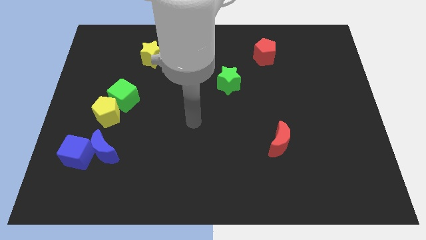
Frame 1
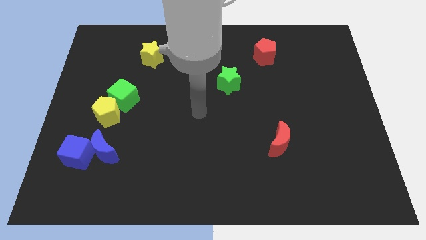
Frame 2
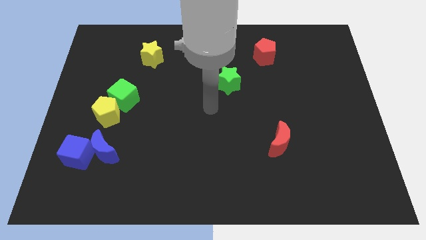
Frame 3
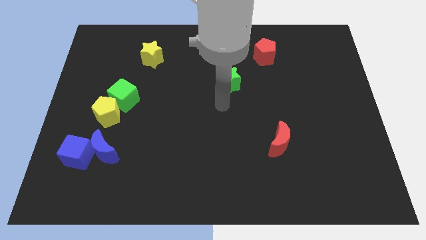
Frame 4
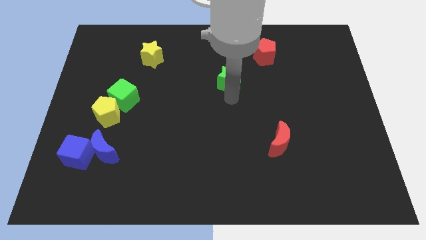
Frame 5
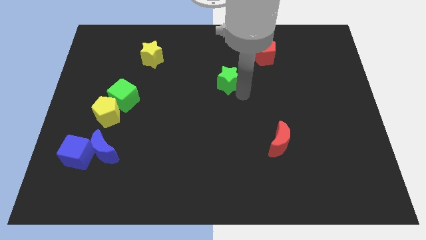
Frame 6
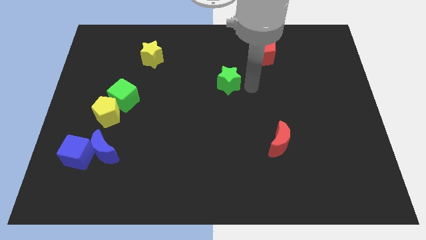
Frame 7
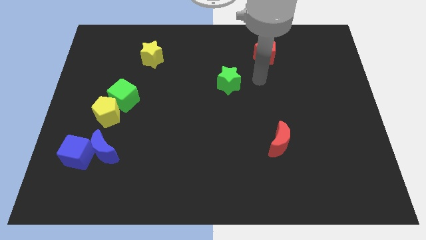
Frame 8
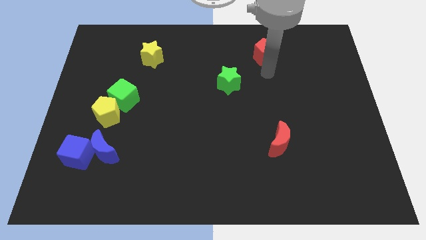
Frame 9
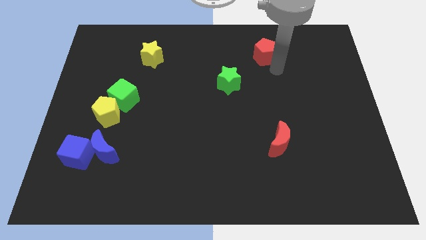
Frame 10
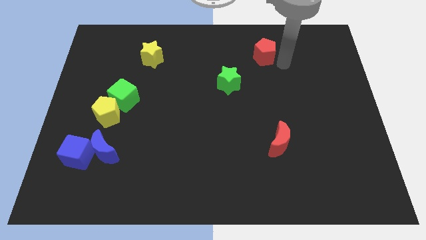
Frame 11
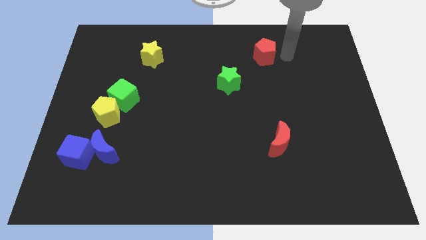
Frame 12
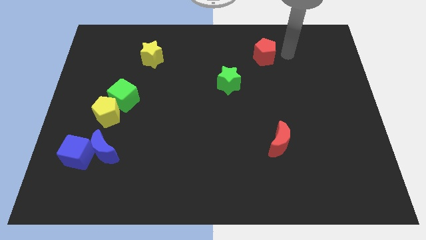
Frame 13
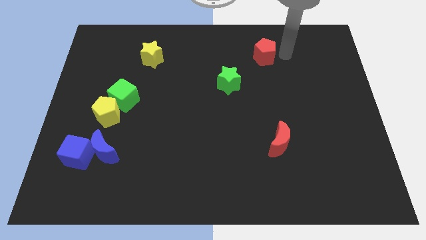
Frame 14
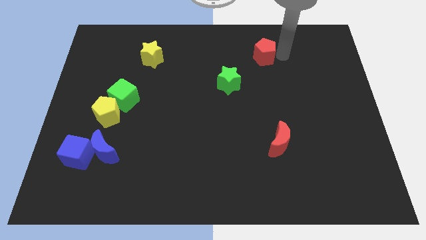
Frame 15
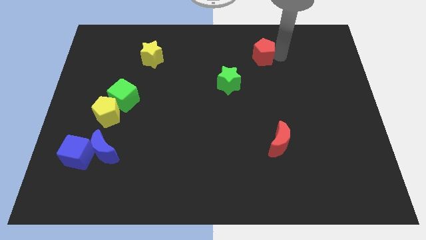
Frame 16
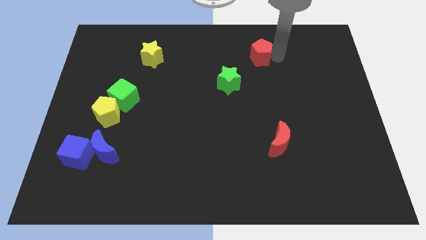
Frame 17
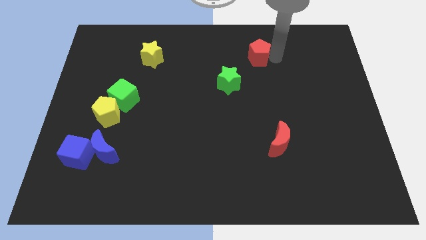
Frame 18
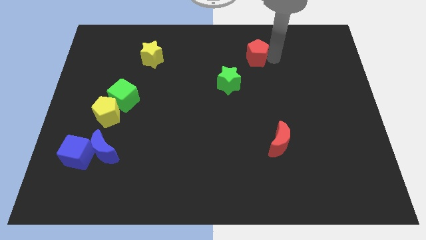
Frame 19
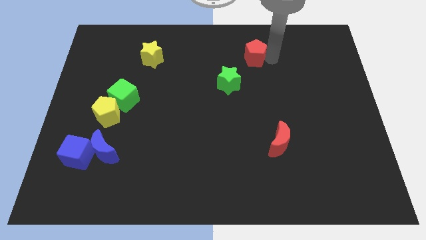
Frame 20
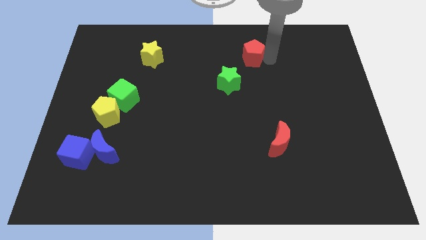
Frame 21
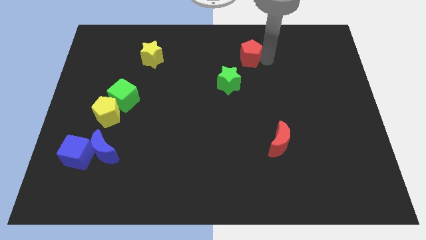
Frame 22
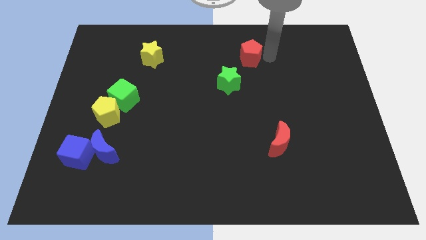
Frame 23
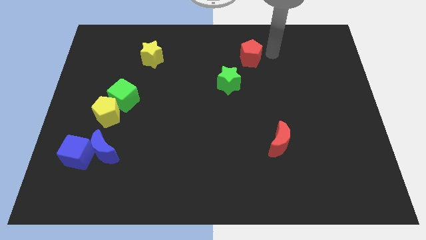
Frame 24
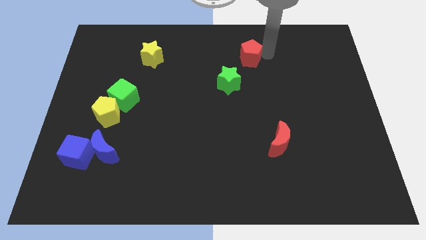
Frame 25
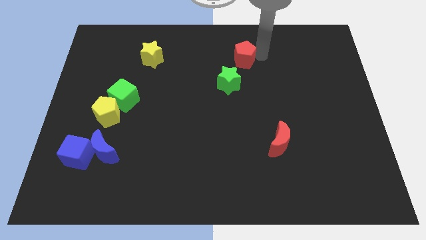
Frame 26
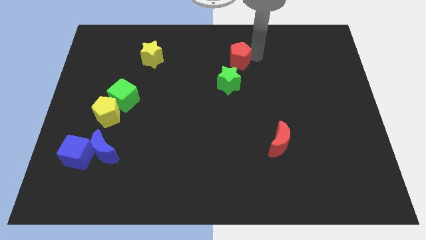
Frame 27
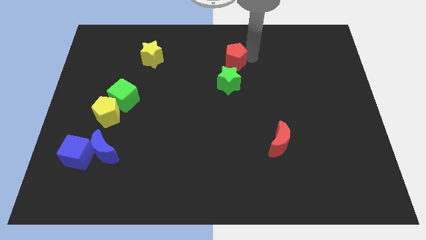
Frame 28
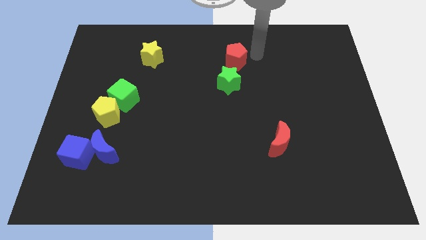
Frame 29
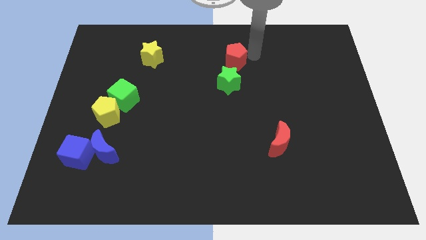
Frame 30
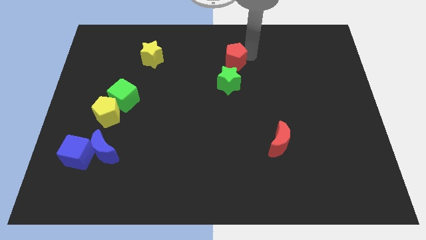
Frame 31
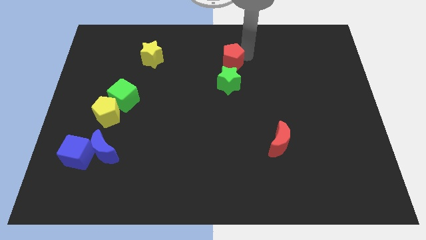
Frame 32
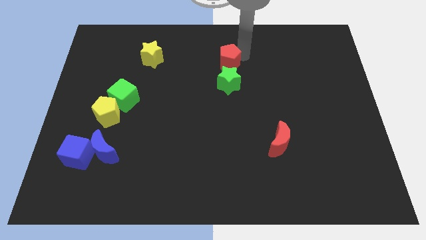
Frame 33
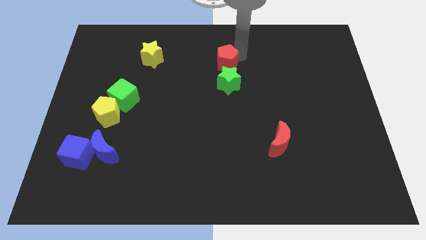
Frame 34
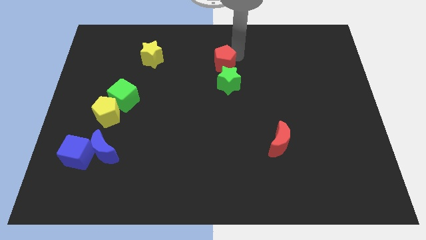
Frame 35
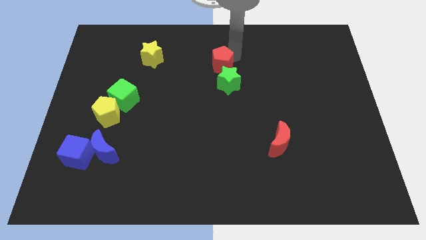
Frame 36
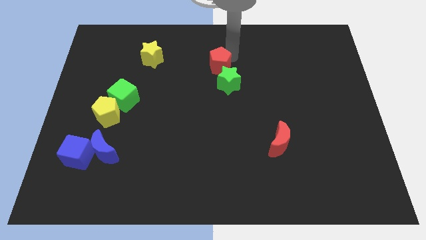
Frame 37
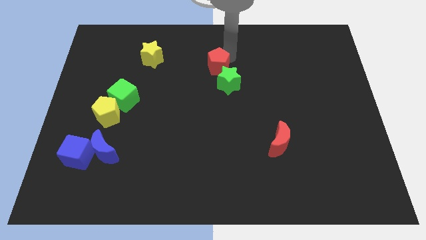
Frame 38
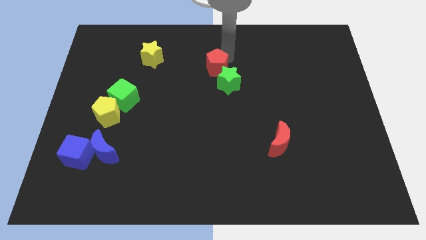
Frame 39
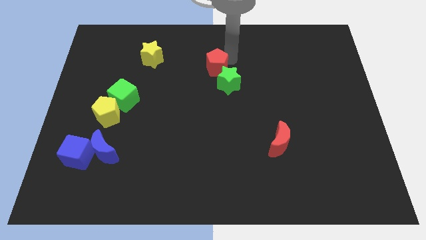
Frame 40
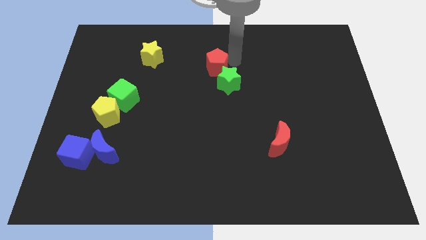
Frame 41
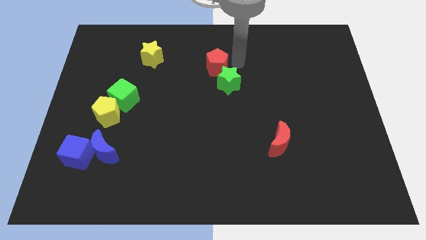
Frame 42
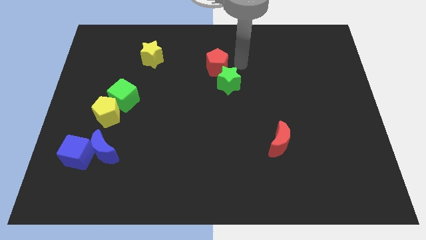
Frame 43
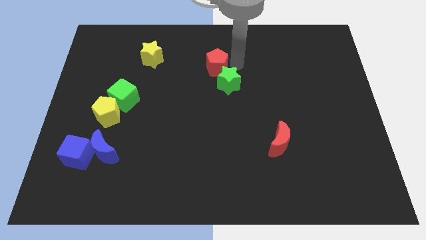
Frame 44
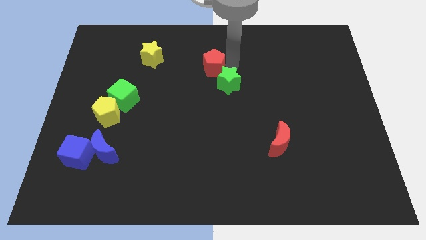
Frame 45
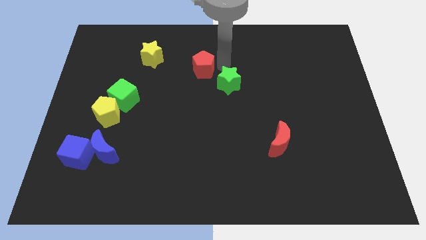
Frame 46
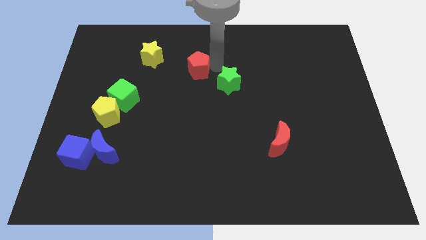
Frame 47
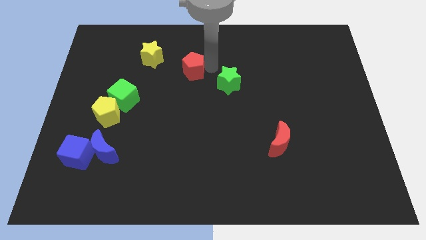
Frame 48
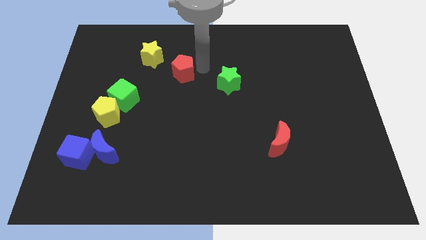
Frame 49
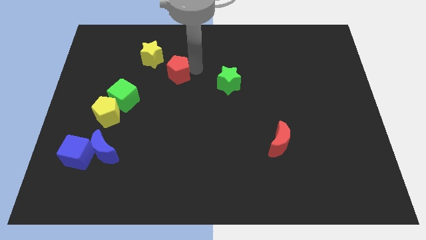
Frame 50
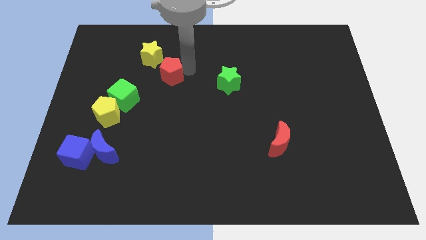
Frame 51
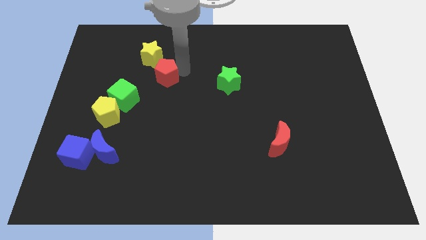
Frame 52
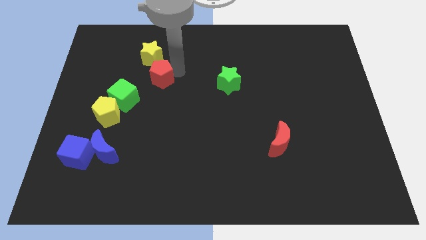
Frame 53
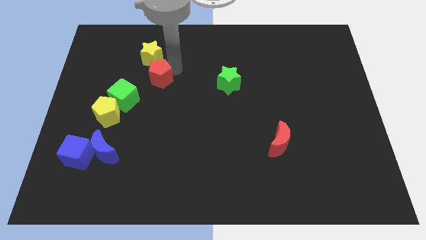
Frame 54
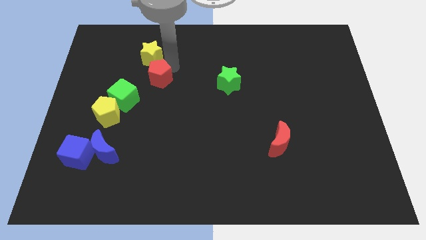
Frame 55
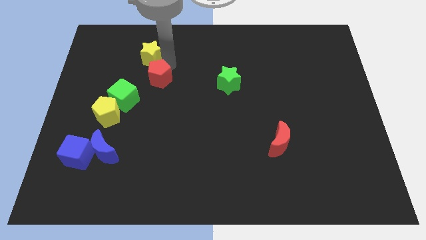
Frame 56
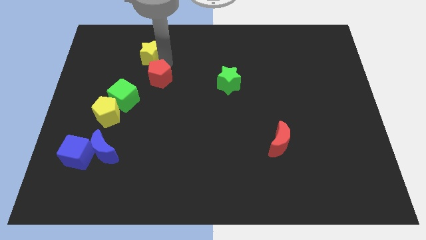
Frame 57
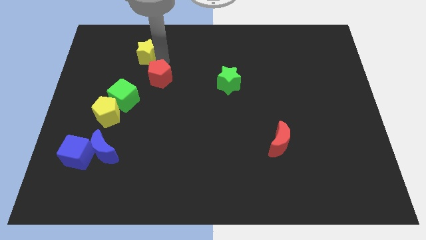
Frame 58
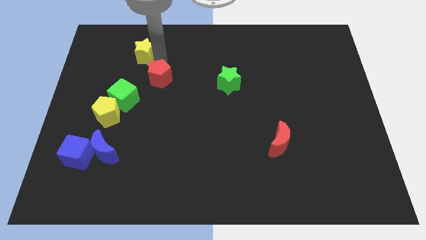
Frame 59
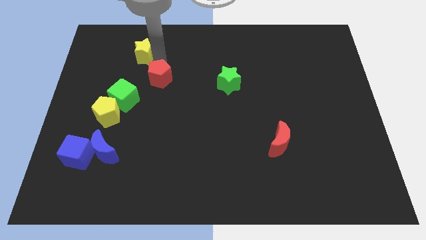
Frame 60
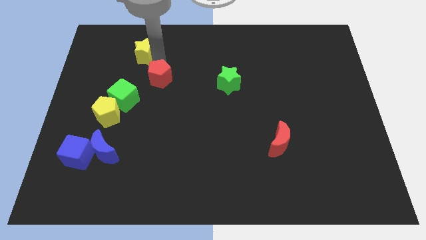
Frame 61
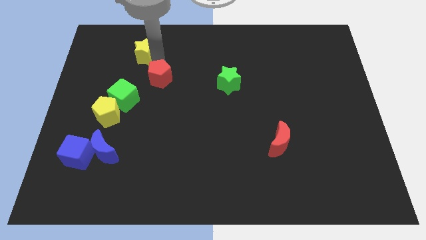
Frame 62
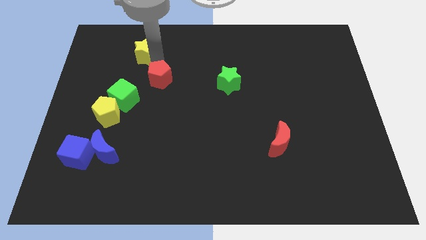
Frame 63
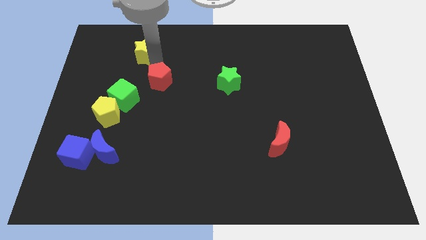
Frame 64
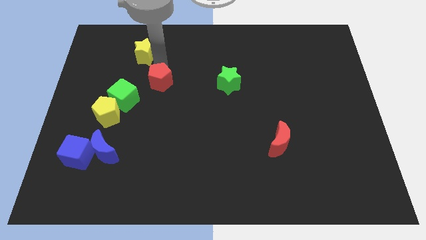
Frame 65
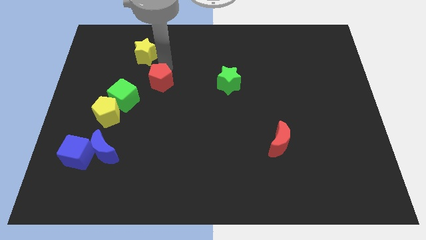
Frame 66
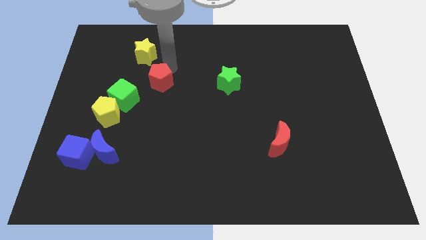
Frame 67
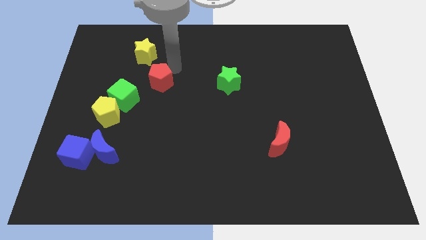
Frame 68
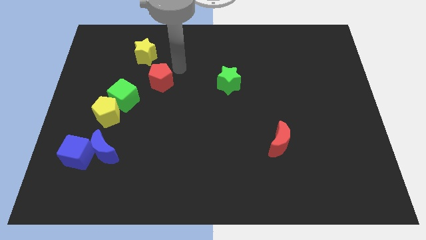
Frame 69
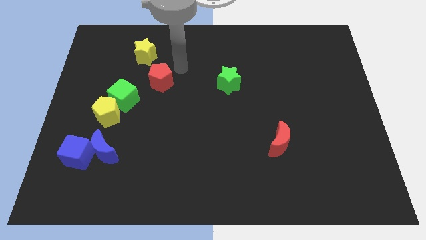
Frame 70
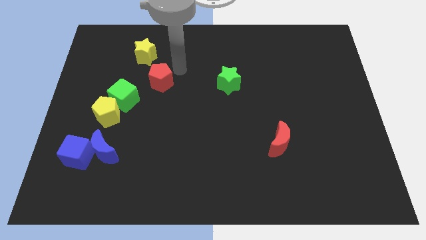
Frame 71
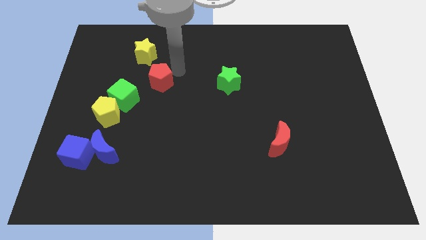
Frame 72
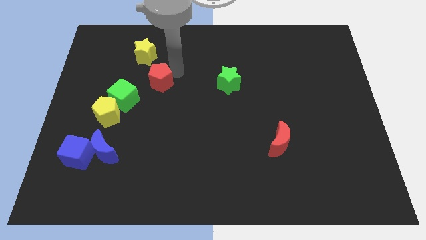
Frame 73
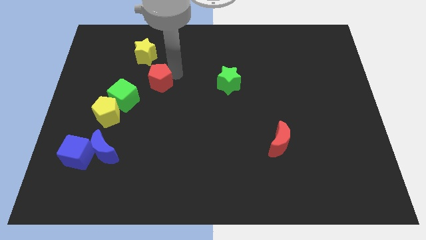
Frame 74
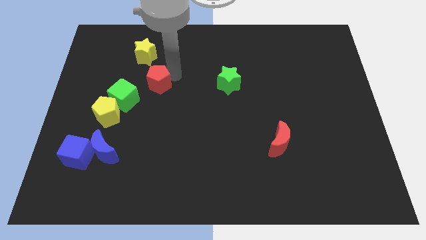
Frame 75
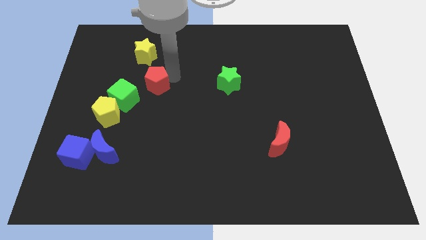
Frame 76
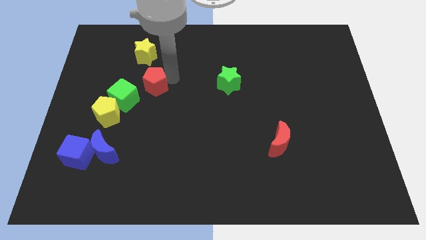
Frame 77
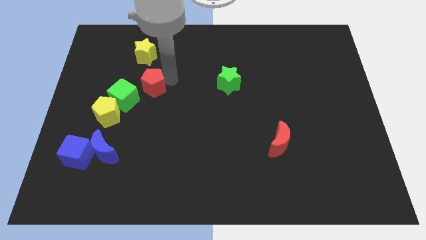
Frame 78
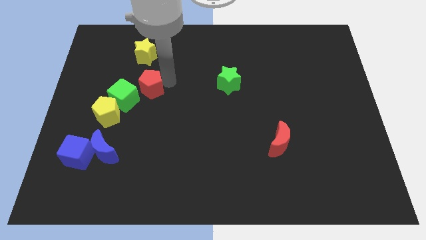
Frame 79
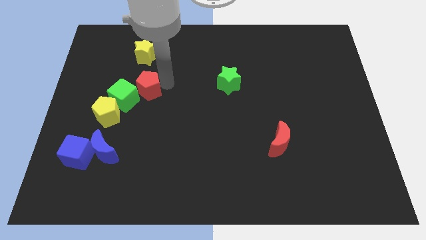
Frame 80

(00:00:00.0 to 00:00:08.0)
slide the red pentagon close to the green cube
